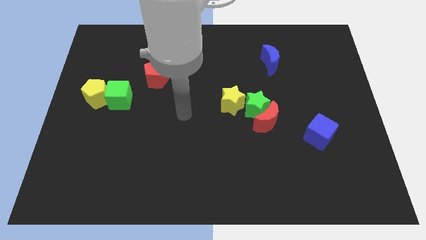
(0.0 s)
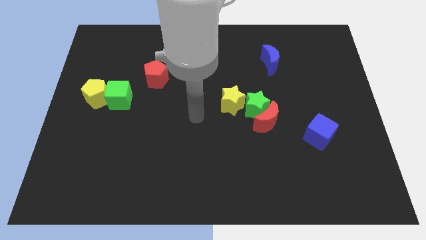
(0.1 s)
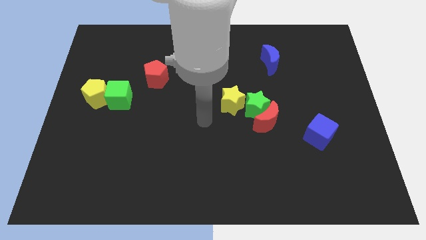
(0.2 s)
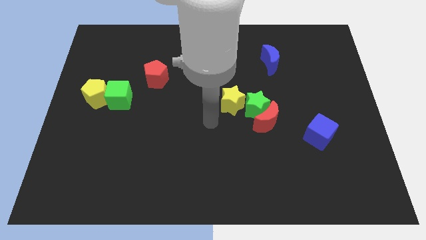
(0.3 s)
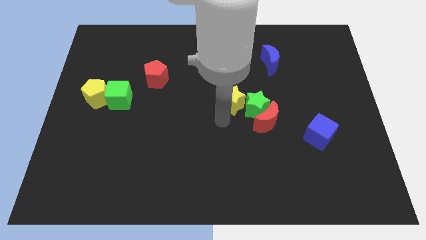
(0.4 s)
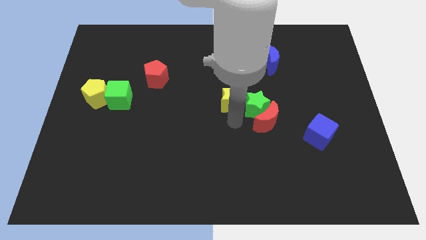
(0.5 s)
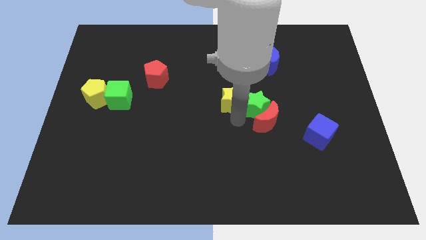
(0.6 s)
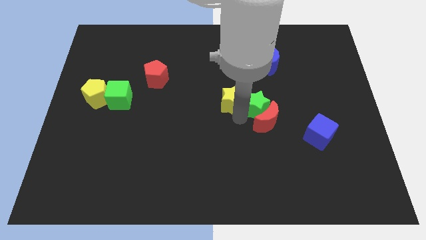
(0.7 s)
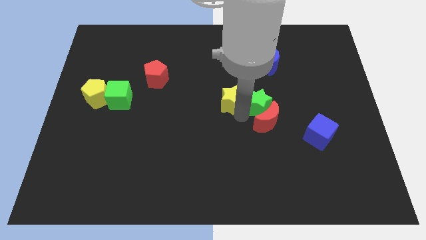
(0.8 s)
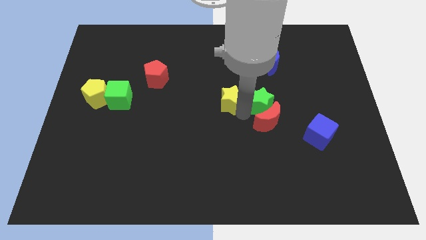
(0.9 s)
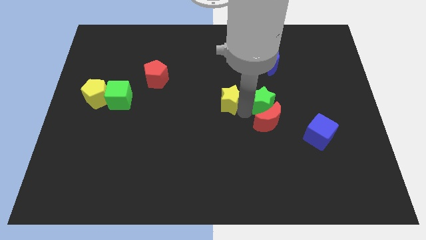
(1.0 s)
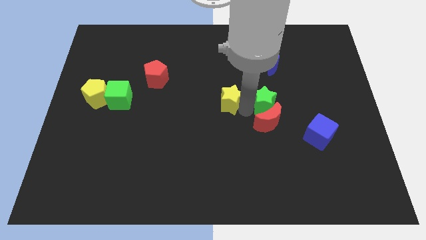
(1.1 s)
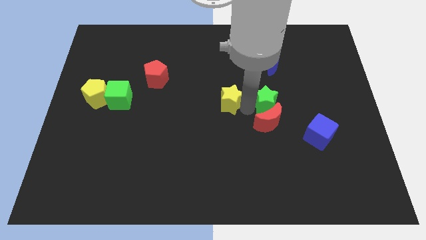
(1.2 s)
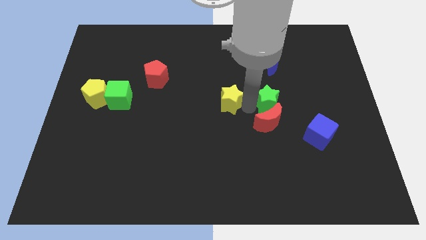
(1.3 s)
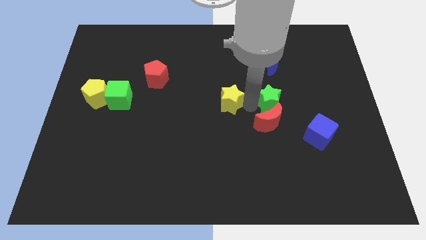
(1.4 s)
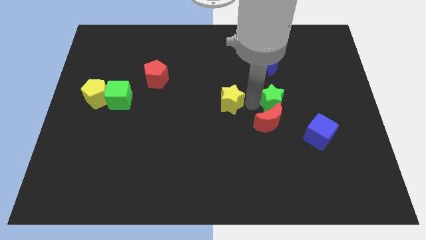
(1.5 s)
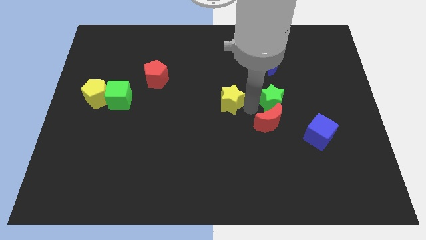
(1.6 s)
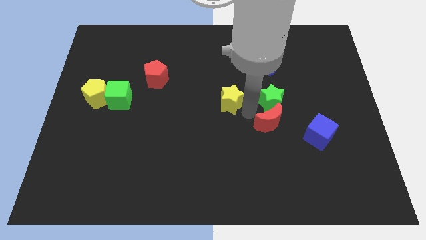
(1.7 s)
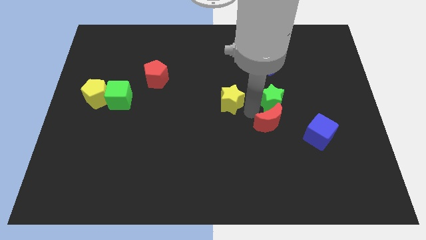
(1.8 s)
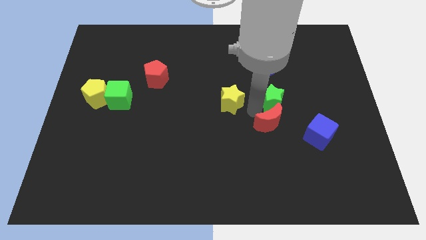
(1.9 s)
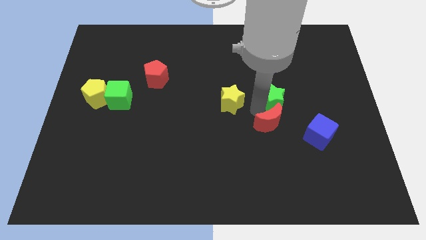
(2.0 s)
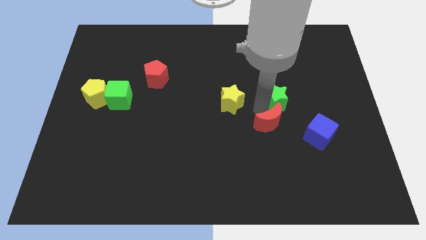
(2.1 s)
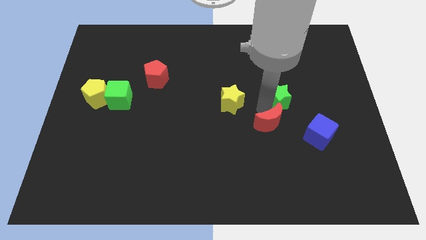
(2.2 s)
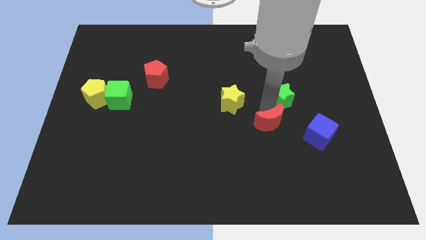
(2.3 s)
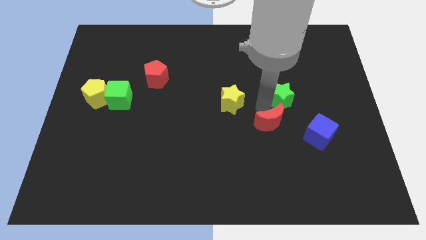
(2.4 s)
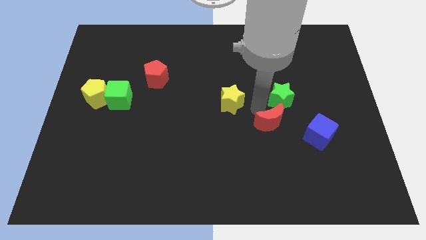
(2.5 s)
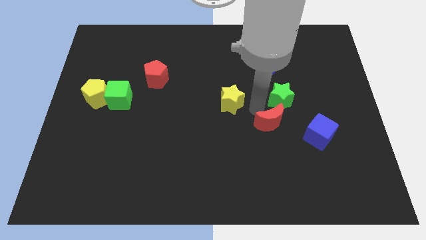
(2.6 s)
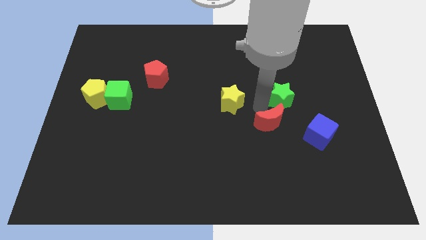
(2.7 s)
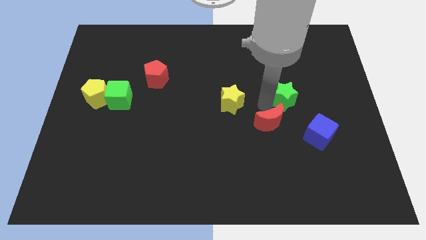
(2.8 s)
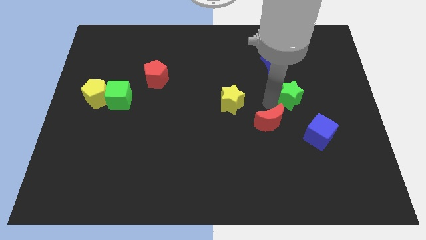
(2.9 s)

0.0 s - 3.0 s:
pull the green star apart from the red moon and yellow star

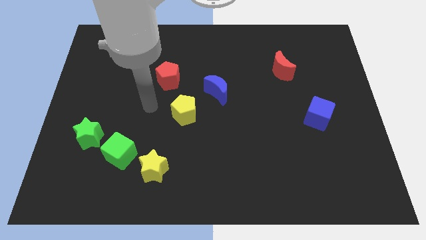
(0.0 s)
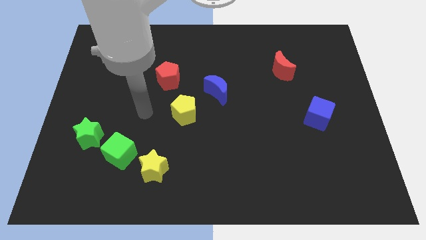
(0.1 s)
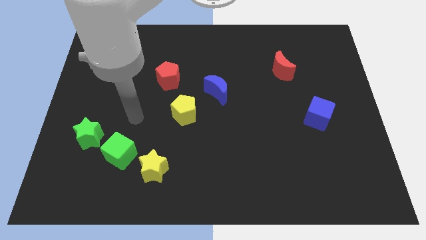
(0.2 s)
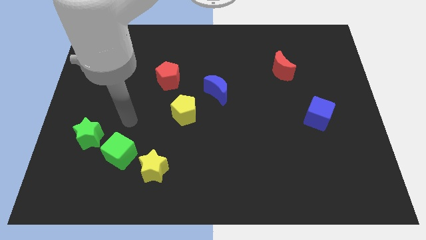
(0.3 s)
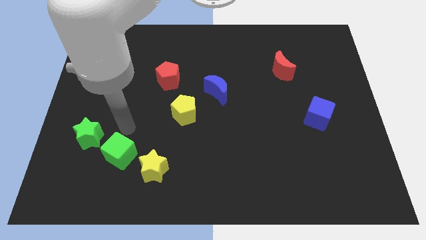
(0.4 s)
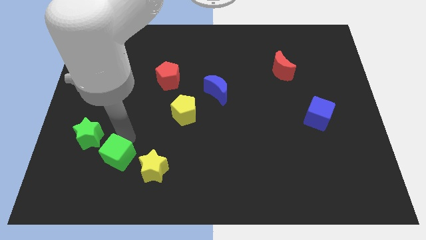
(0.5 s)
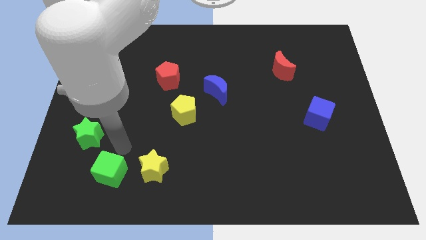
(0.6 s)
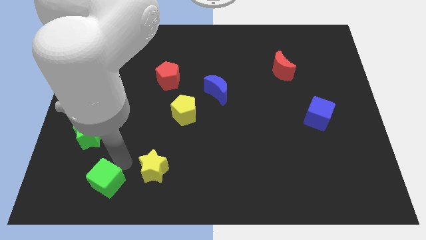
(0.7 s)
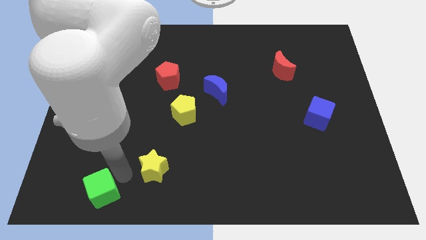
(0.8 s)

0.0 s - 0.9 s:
separate the yellow star from the green cube

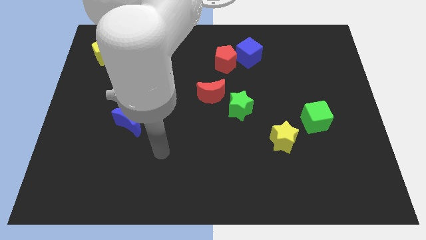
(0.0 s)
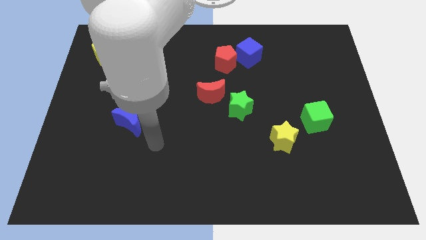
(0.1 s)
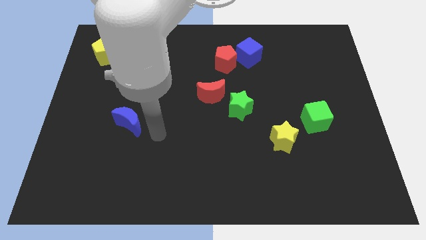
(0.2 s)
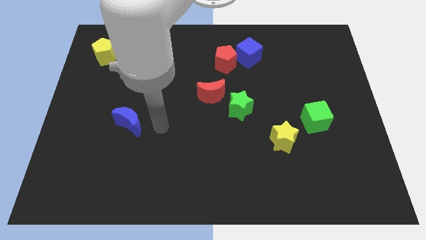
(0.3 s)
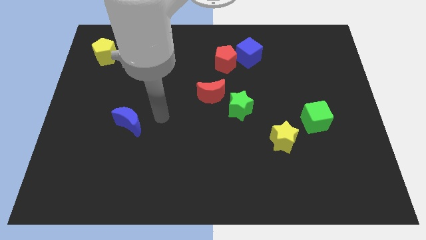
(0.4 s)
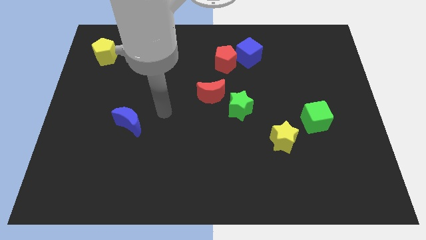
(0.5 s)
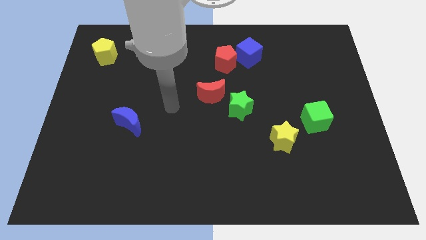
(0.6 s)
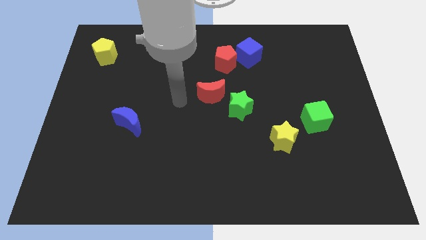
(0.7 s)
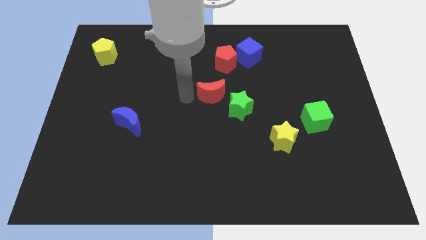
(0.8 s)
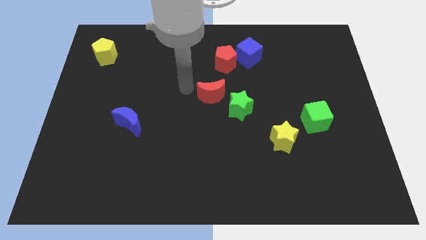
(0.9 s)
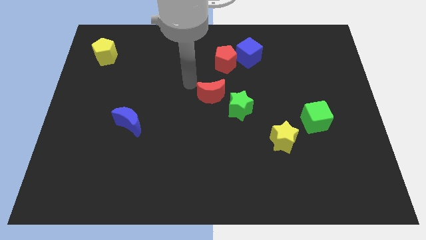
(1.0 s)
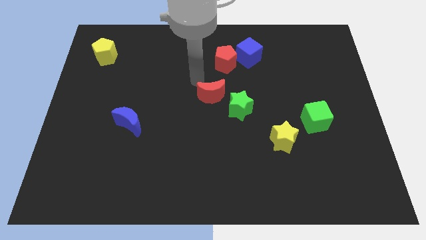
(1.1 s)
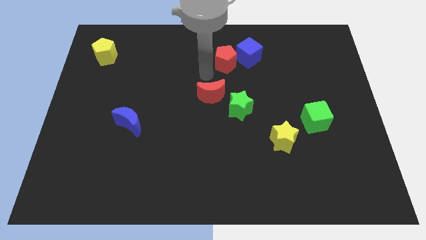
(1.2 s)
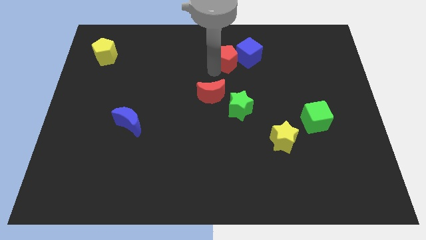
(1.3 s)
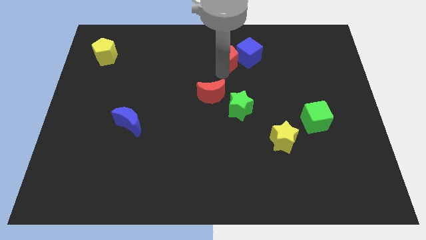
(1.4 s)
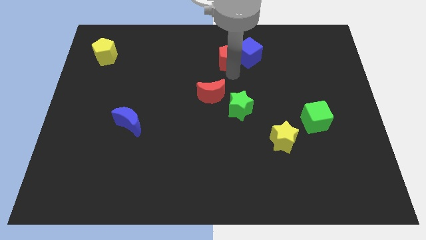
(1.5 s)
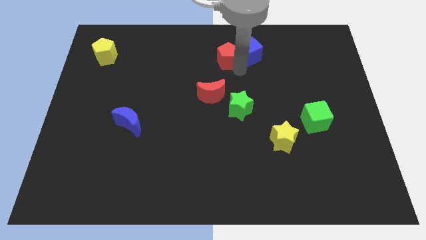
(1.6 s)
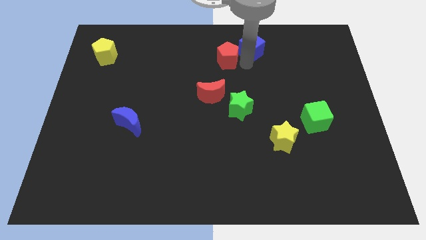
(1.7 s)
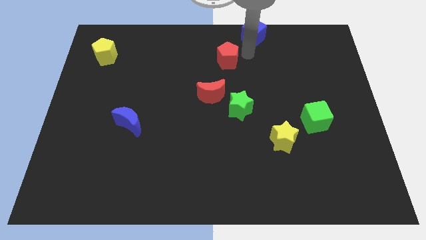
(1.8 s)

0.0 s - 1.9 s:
separate the red pentagon from the blue cube

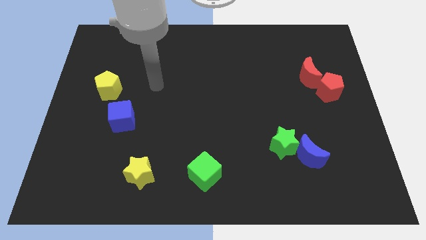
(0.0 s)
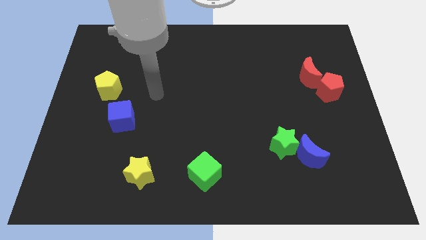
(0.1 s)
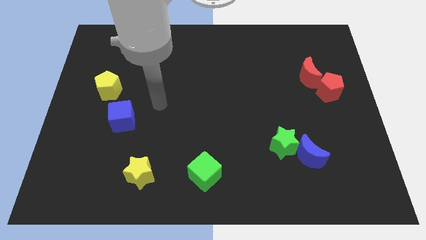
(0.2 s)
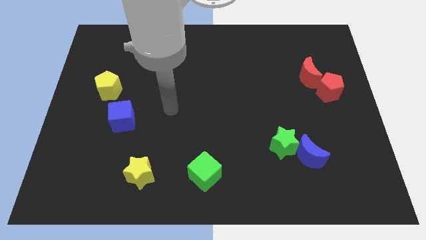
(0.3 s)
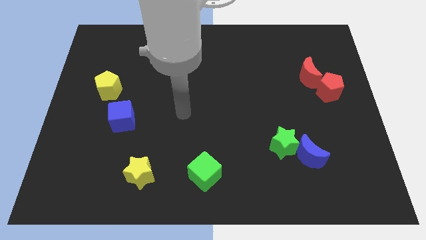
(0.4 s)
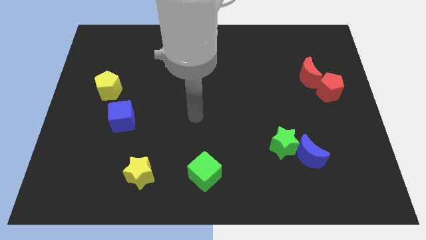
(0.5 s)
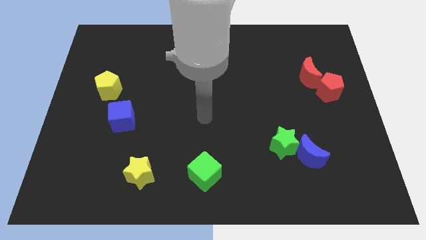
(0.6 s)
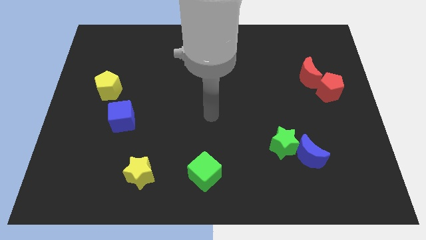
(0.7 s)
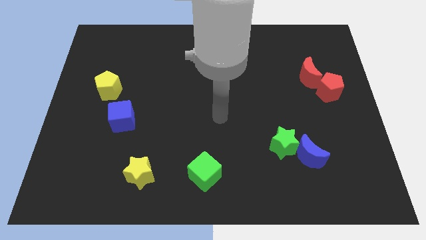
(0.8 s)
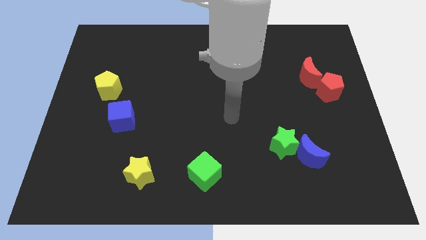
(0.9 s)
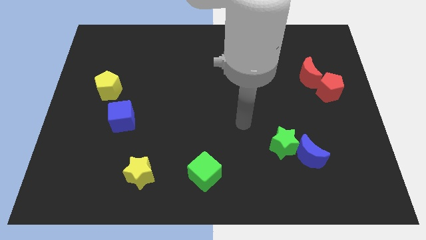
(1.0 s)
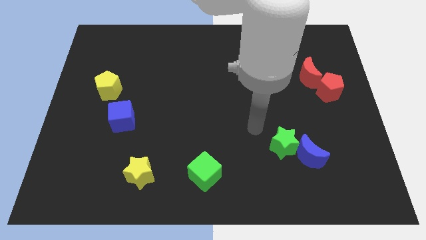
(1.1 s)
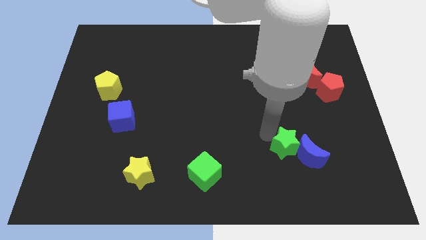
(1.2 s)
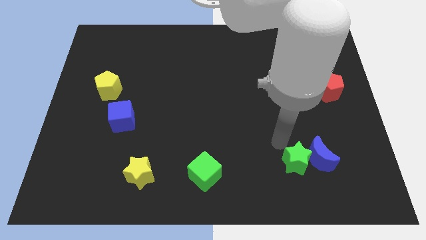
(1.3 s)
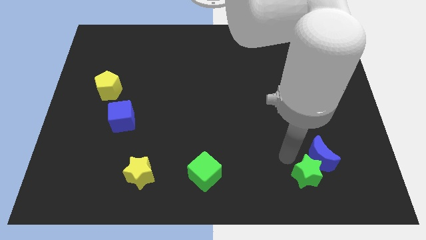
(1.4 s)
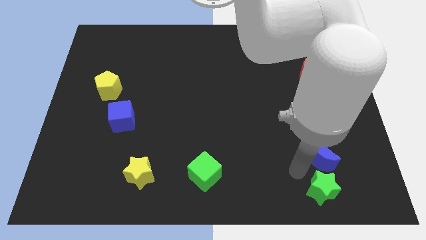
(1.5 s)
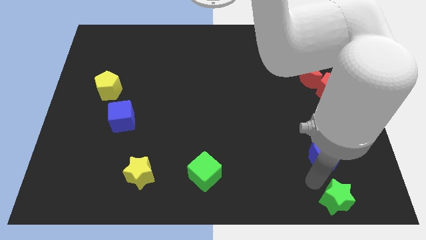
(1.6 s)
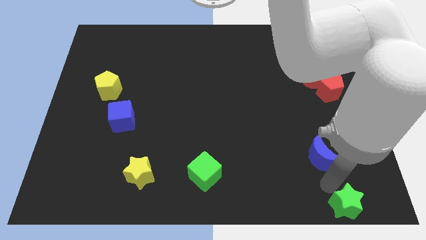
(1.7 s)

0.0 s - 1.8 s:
move the blue moon away from the green star

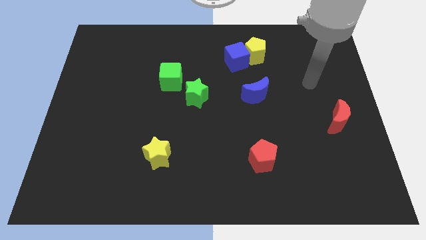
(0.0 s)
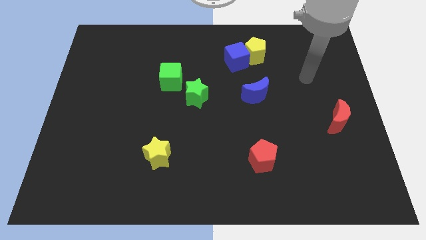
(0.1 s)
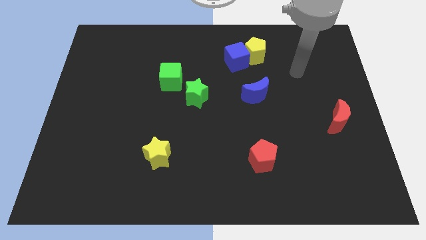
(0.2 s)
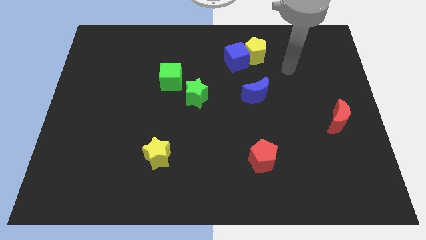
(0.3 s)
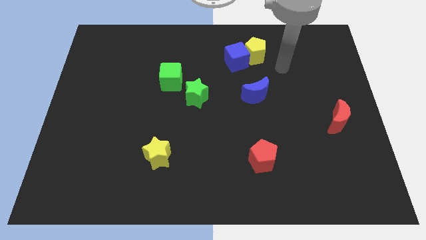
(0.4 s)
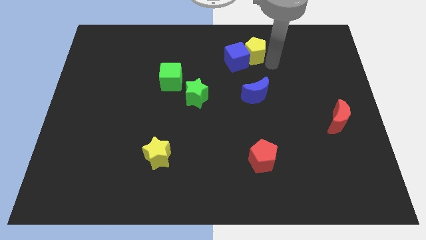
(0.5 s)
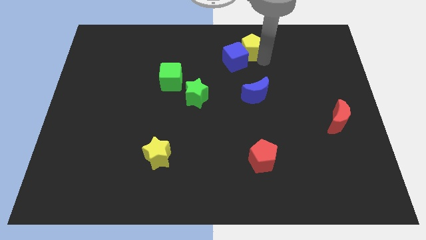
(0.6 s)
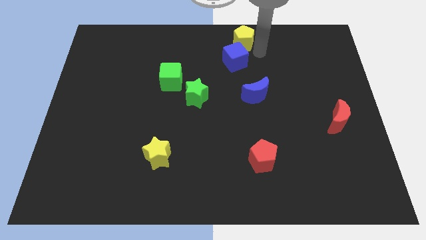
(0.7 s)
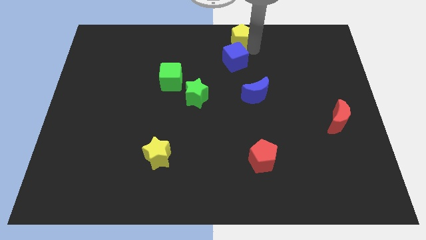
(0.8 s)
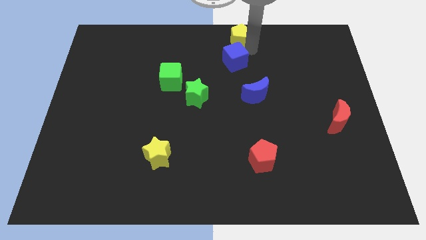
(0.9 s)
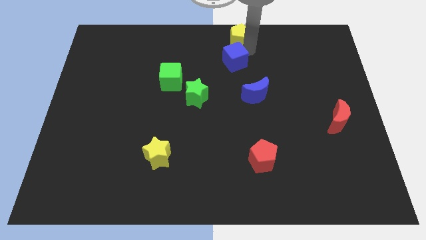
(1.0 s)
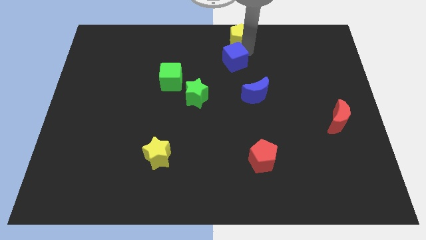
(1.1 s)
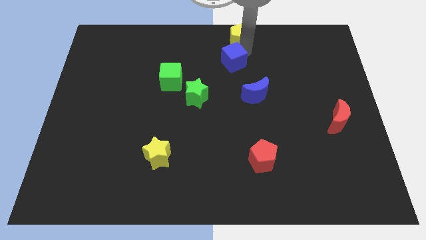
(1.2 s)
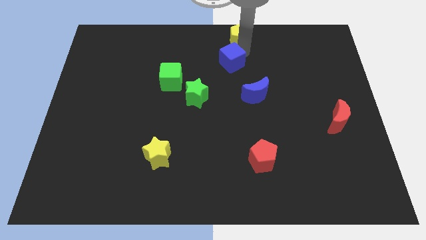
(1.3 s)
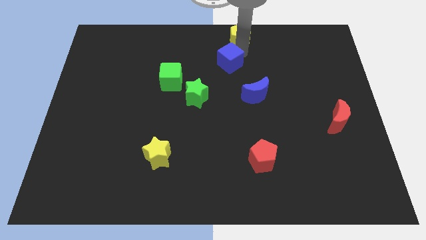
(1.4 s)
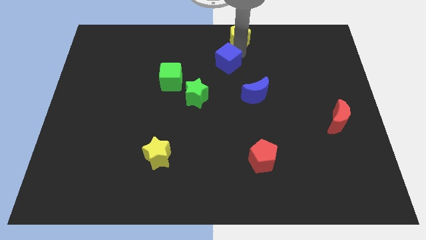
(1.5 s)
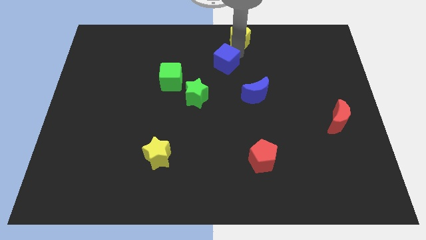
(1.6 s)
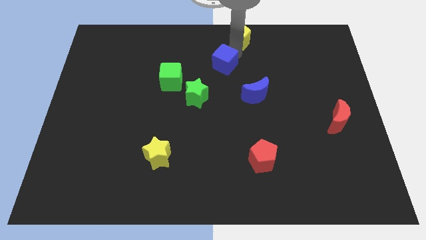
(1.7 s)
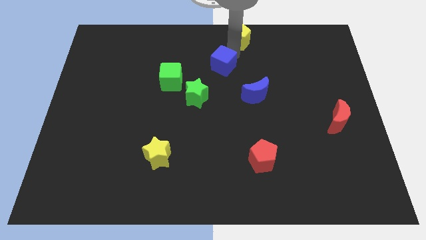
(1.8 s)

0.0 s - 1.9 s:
pull the blue cube apart from the yellow pentagon
